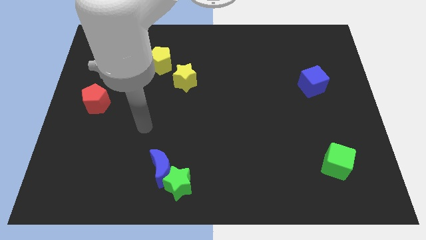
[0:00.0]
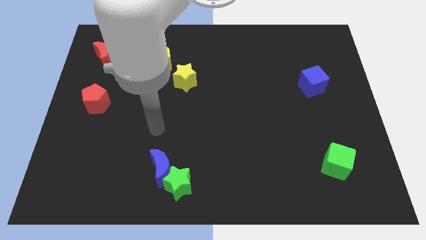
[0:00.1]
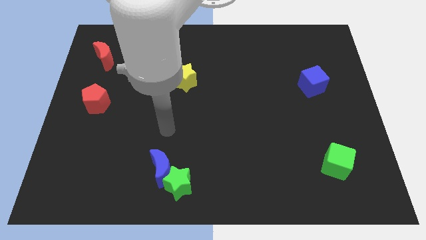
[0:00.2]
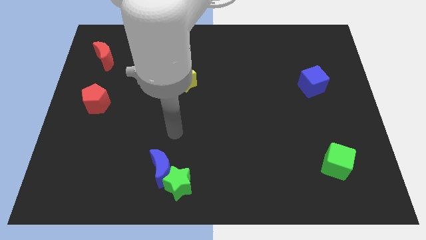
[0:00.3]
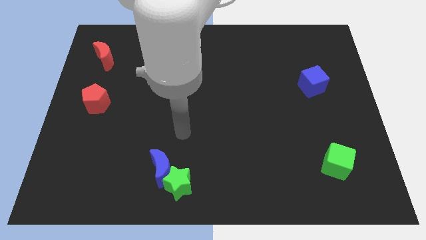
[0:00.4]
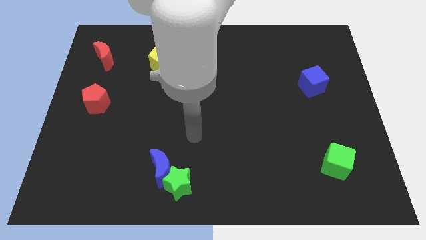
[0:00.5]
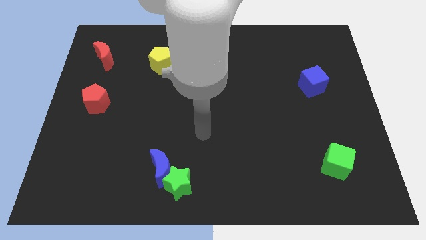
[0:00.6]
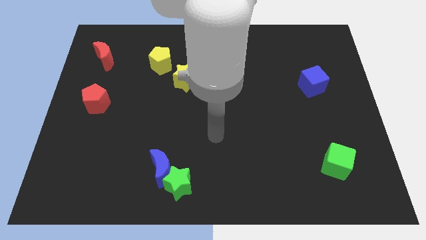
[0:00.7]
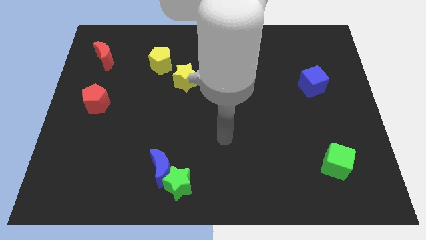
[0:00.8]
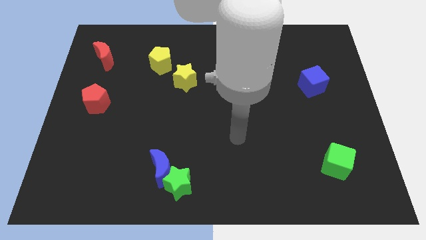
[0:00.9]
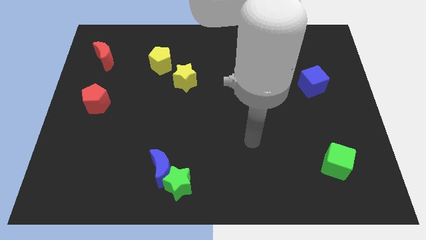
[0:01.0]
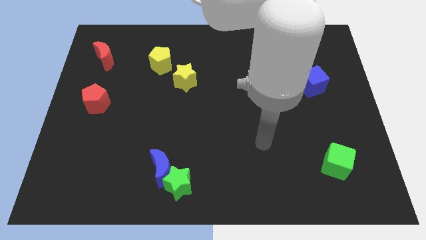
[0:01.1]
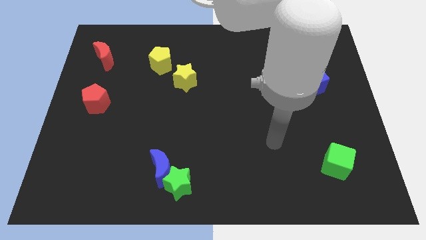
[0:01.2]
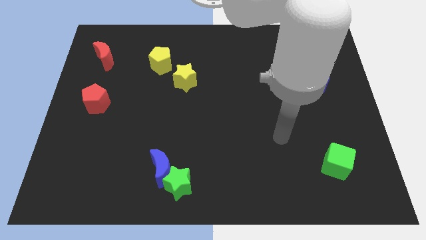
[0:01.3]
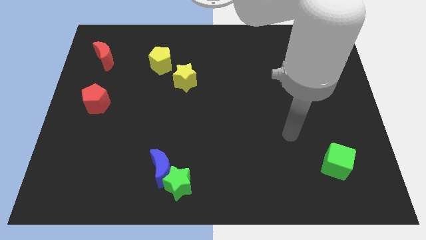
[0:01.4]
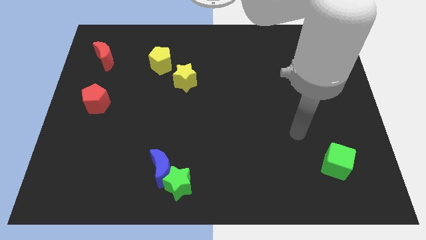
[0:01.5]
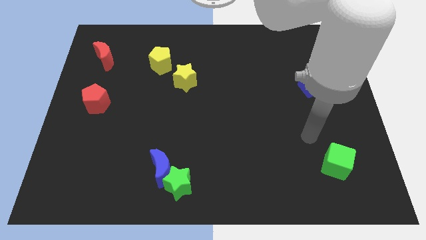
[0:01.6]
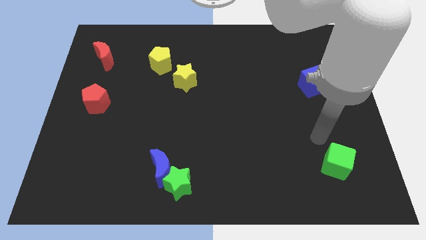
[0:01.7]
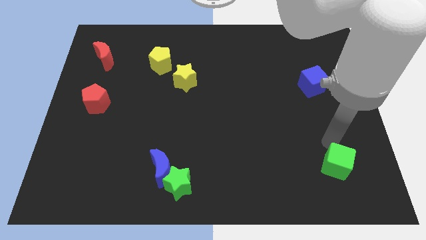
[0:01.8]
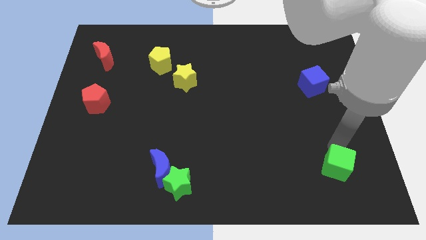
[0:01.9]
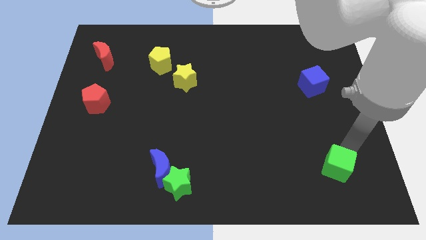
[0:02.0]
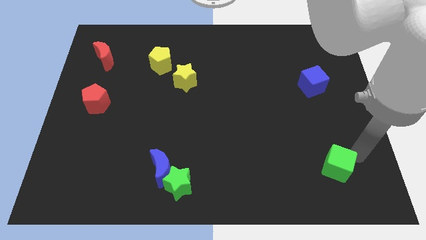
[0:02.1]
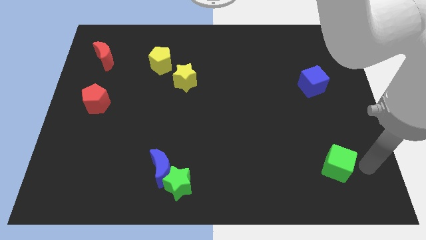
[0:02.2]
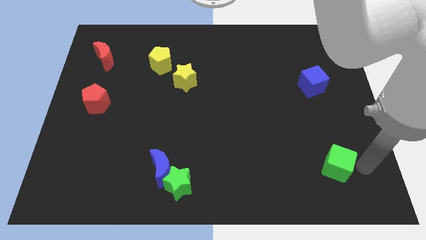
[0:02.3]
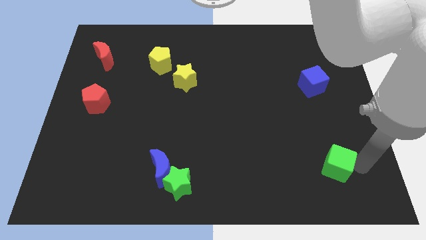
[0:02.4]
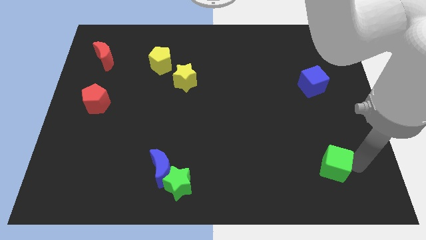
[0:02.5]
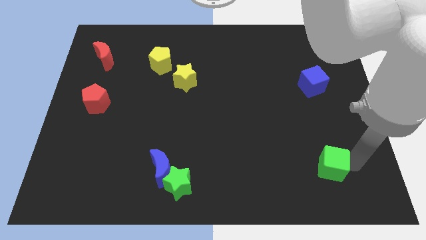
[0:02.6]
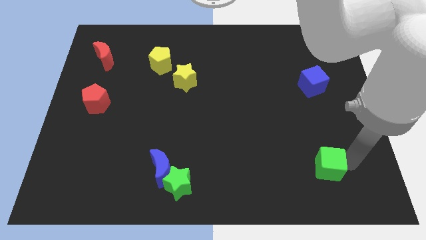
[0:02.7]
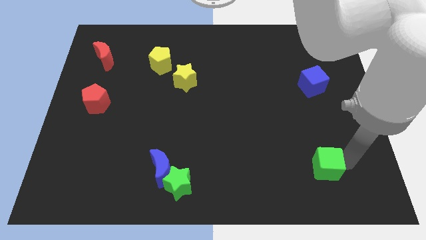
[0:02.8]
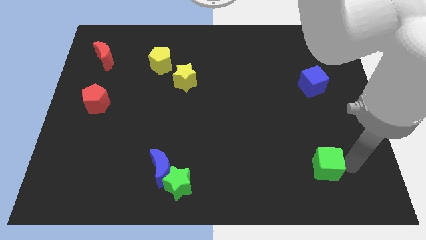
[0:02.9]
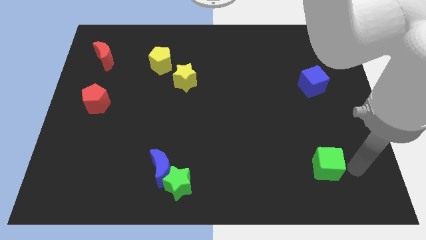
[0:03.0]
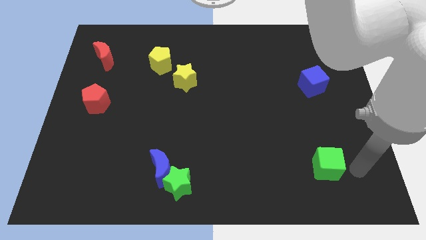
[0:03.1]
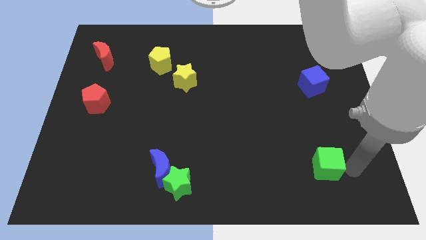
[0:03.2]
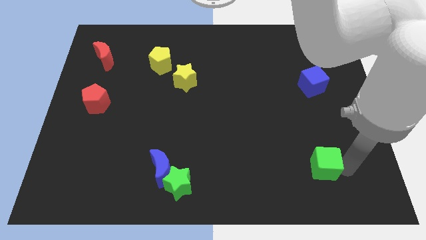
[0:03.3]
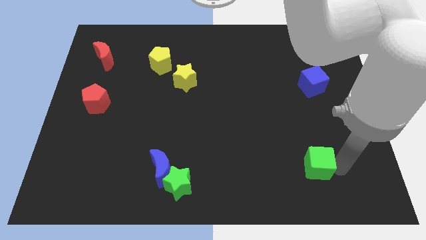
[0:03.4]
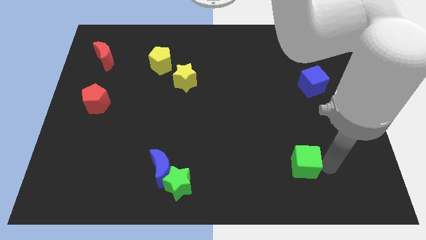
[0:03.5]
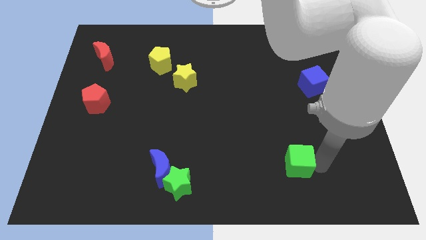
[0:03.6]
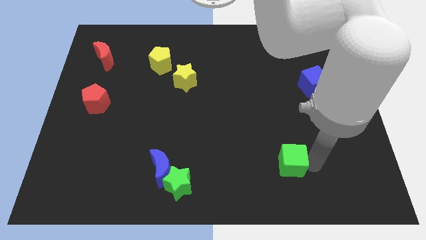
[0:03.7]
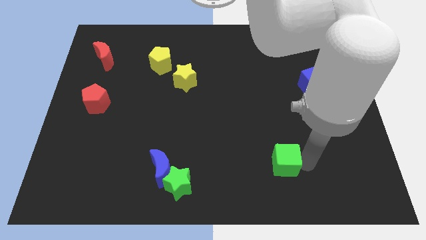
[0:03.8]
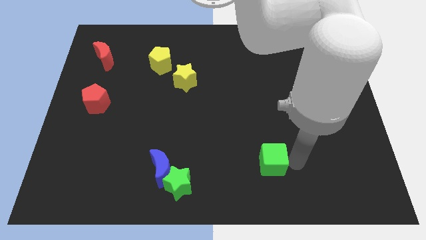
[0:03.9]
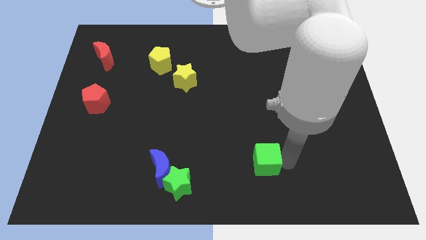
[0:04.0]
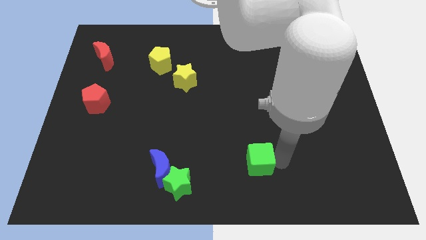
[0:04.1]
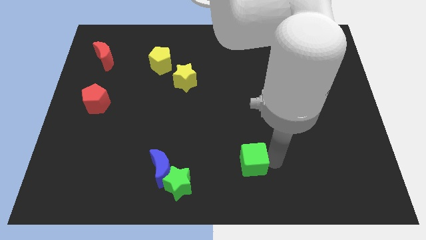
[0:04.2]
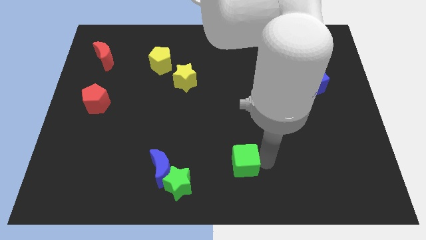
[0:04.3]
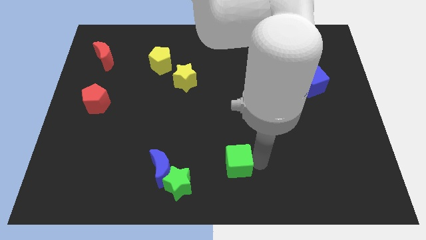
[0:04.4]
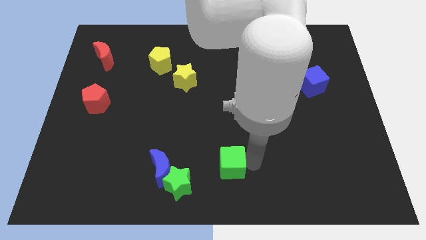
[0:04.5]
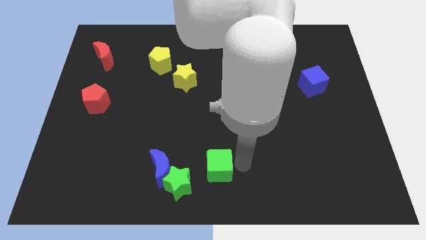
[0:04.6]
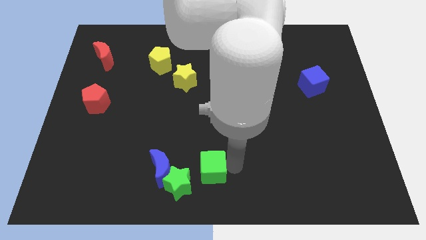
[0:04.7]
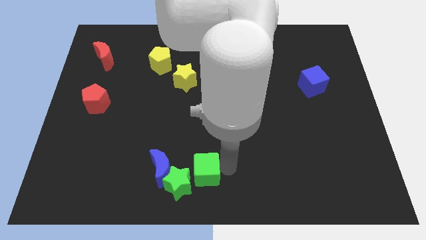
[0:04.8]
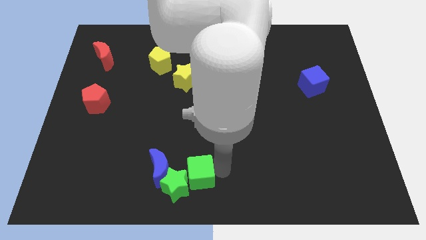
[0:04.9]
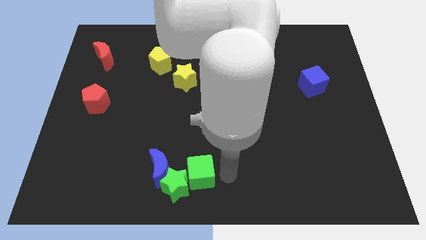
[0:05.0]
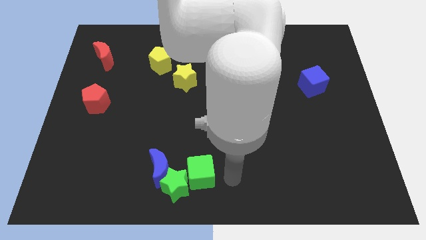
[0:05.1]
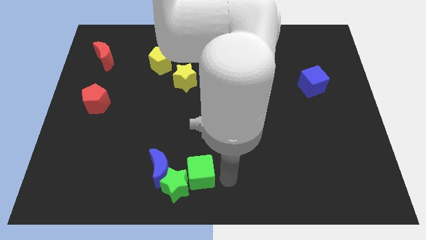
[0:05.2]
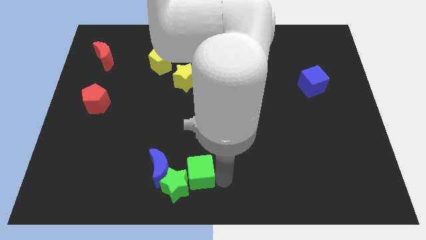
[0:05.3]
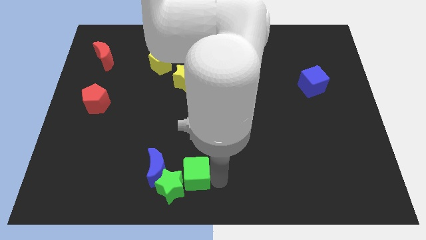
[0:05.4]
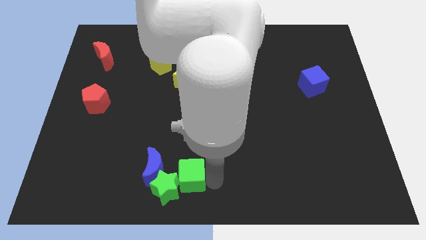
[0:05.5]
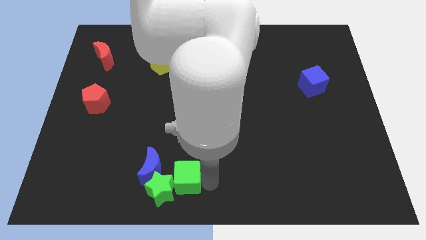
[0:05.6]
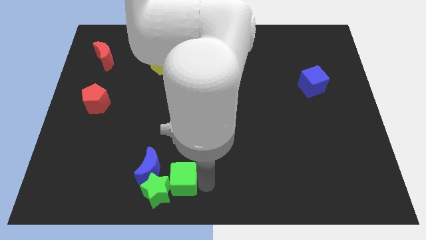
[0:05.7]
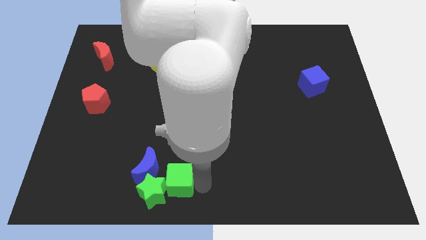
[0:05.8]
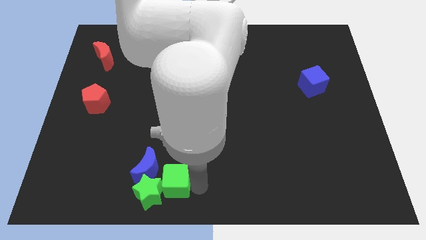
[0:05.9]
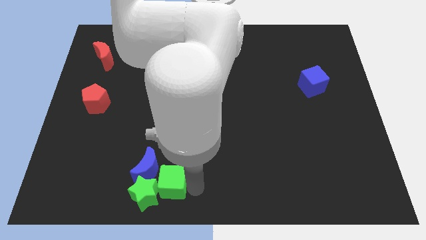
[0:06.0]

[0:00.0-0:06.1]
slide the green cube close to the blue moon

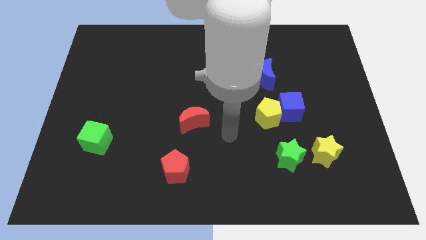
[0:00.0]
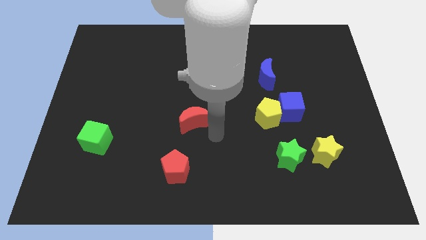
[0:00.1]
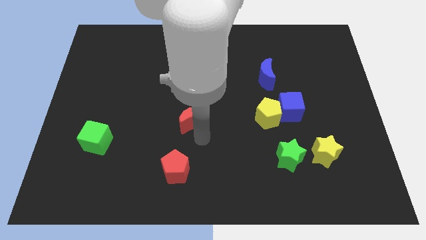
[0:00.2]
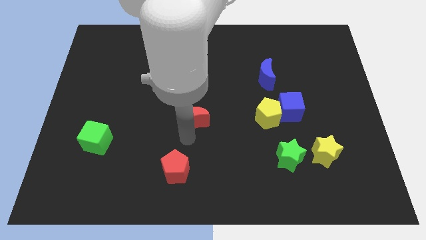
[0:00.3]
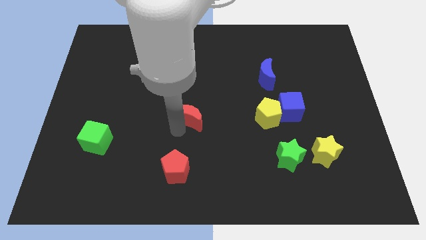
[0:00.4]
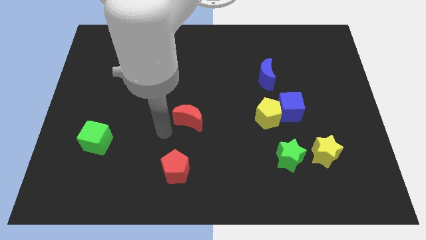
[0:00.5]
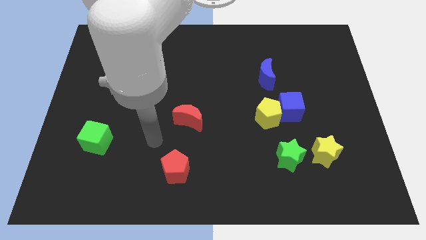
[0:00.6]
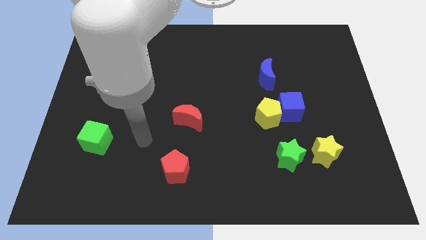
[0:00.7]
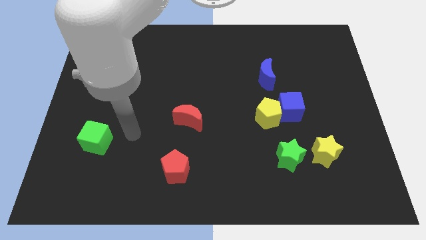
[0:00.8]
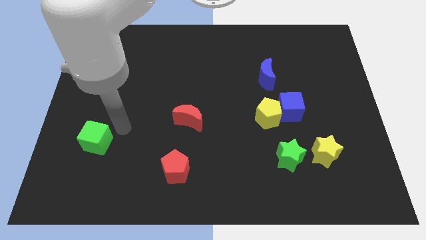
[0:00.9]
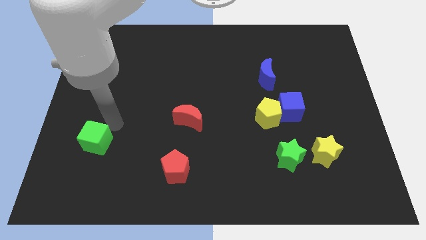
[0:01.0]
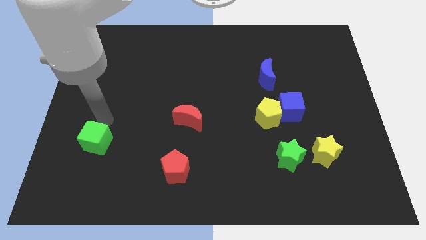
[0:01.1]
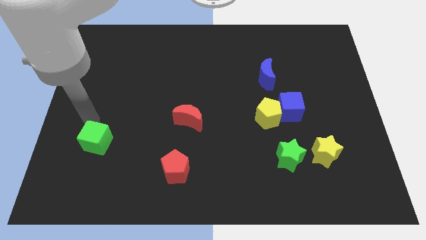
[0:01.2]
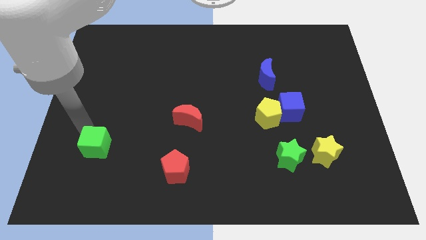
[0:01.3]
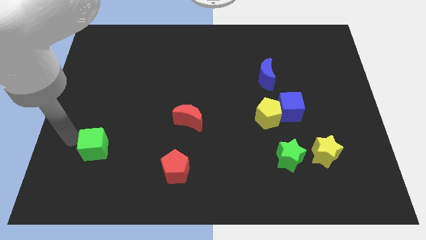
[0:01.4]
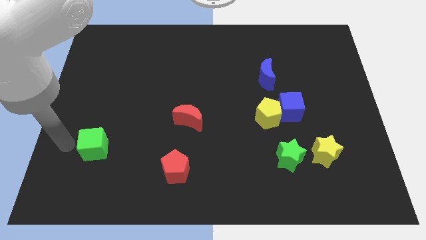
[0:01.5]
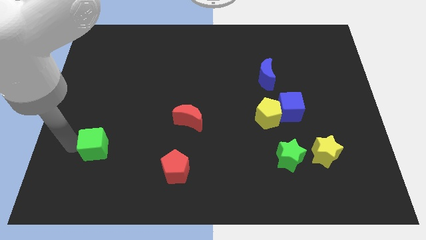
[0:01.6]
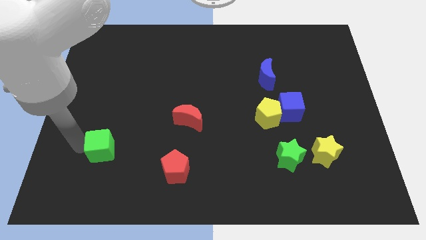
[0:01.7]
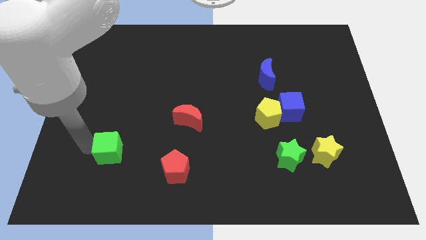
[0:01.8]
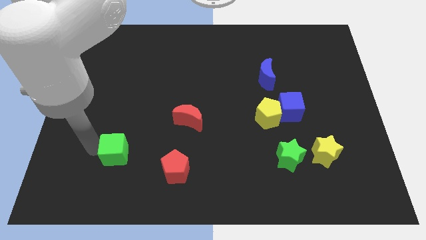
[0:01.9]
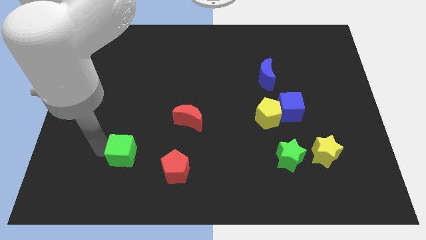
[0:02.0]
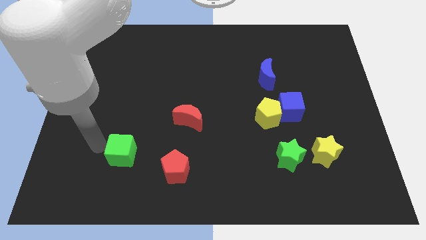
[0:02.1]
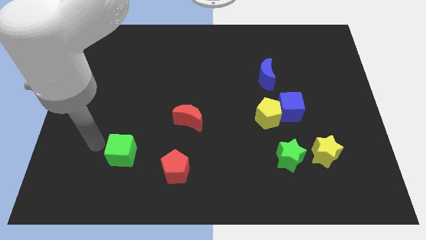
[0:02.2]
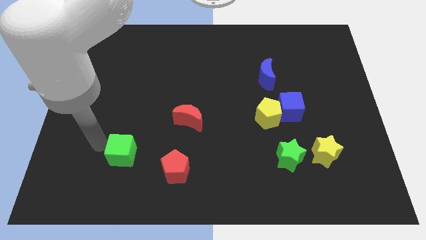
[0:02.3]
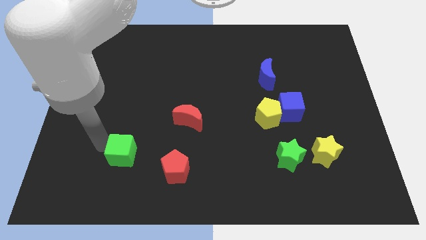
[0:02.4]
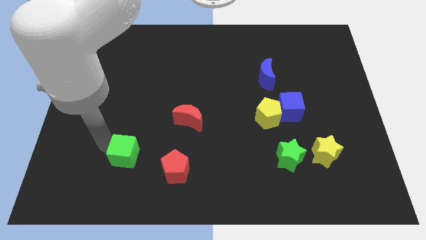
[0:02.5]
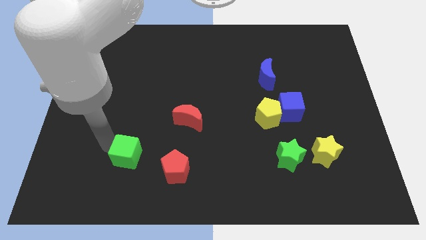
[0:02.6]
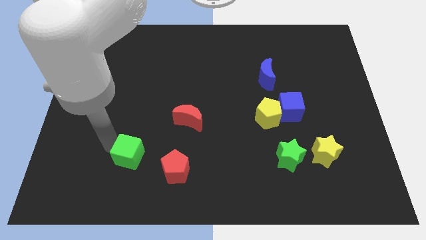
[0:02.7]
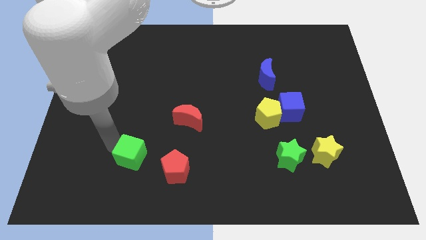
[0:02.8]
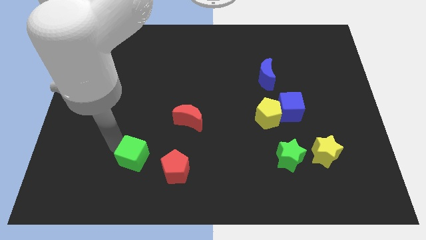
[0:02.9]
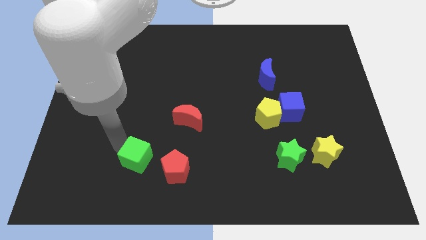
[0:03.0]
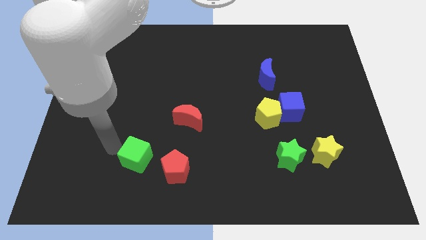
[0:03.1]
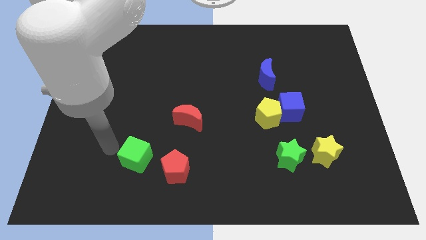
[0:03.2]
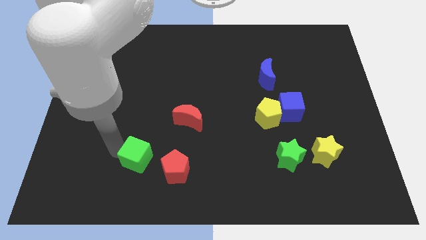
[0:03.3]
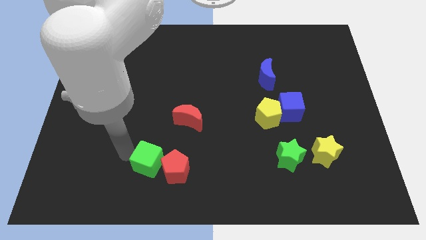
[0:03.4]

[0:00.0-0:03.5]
push the green cube to the red pentagon
